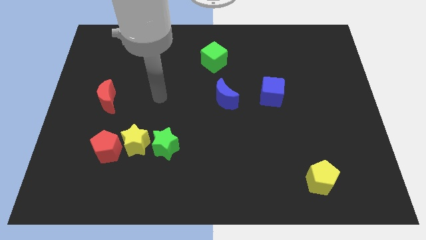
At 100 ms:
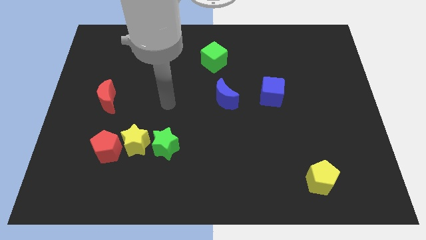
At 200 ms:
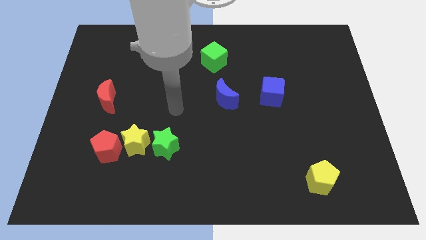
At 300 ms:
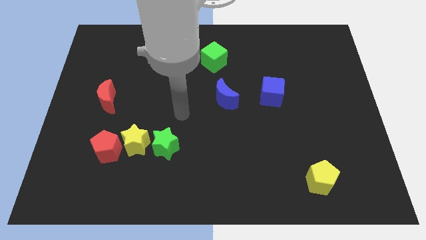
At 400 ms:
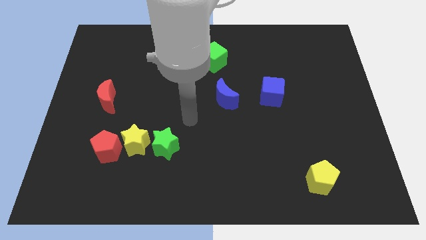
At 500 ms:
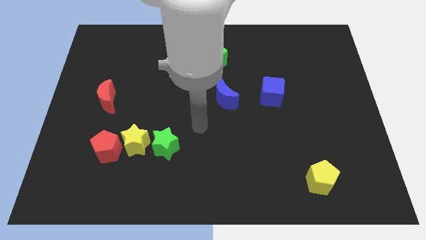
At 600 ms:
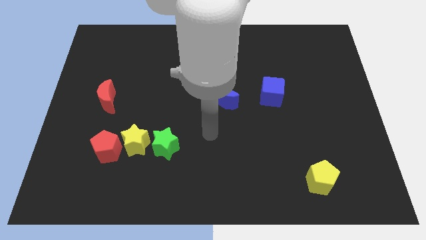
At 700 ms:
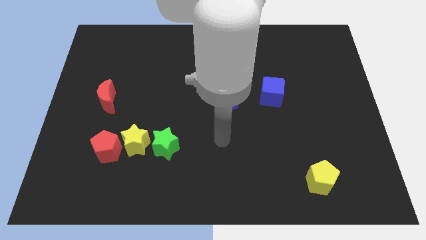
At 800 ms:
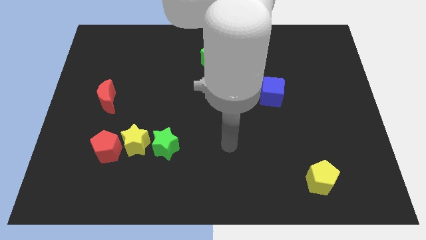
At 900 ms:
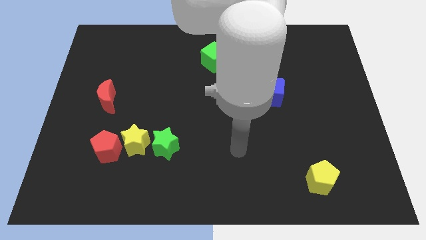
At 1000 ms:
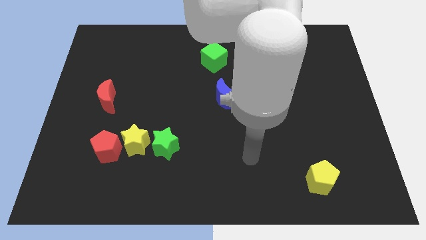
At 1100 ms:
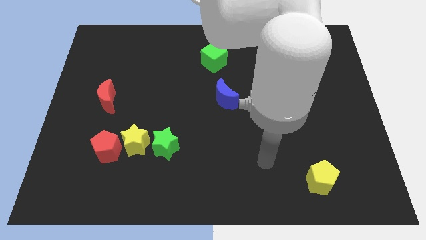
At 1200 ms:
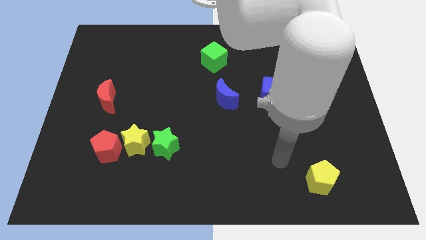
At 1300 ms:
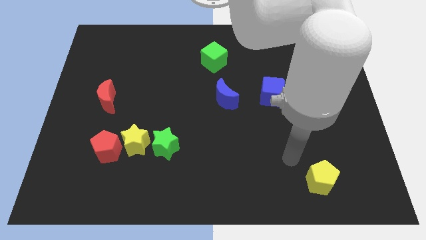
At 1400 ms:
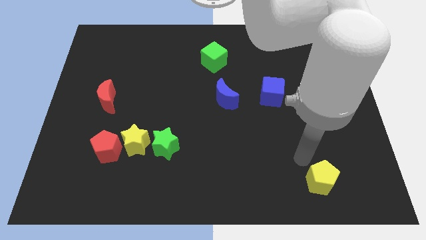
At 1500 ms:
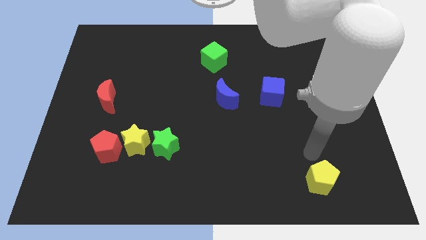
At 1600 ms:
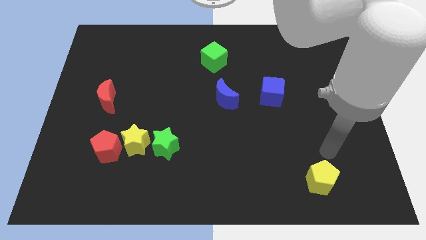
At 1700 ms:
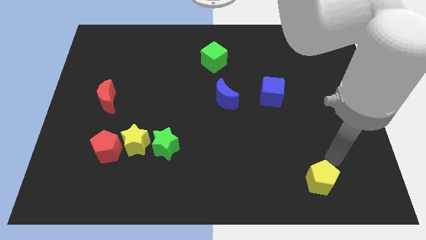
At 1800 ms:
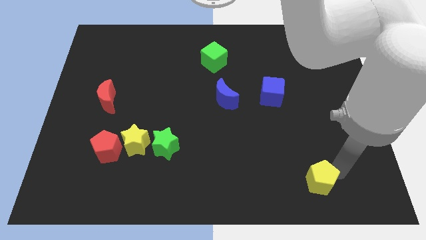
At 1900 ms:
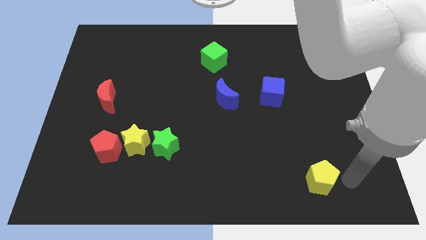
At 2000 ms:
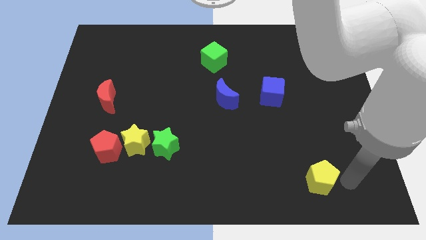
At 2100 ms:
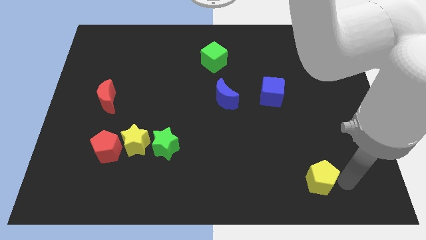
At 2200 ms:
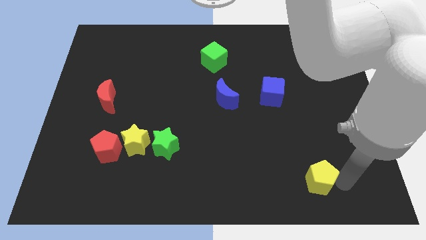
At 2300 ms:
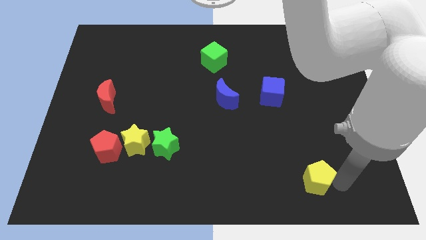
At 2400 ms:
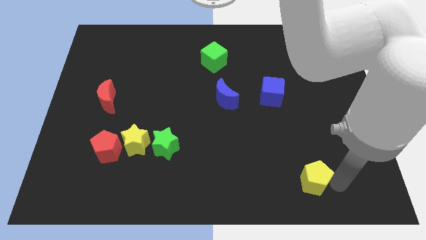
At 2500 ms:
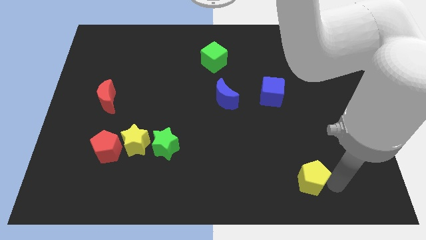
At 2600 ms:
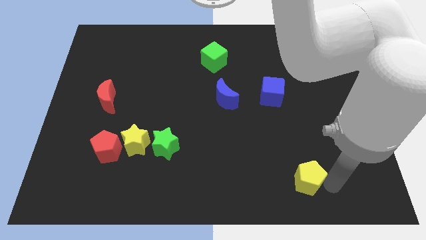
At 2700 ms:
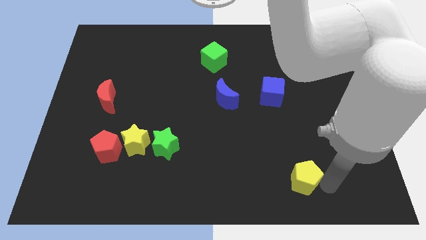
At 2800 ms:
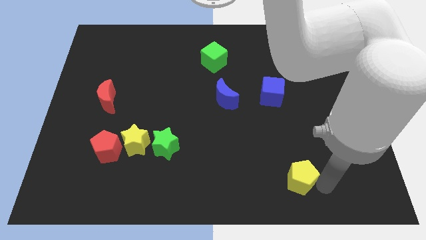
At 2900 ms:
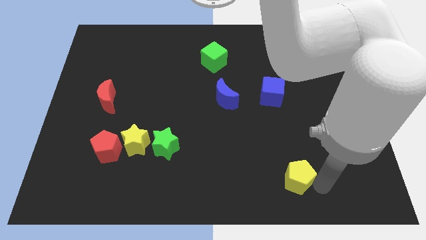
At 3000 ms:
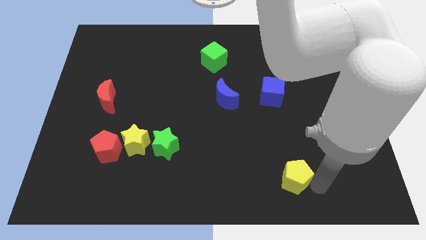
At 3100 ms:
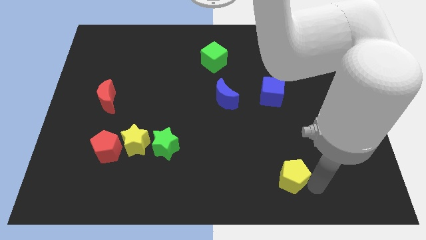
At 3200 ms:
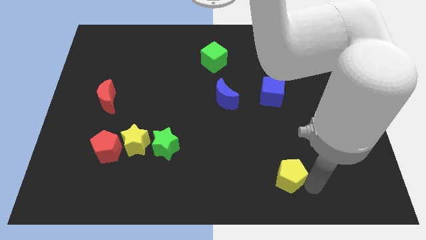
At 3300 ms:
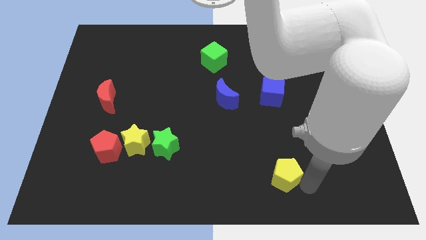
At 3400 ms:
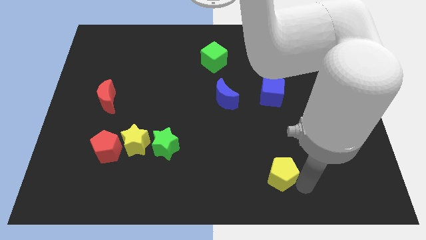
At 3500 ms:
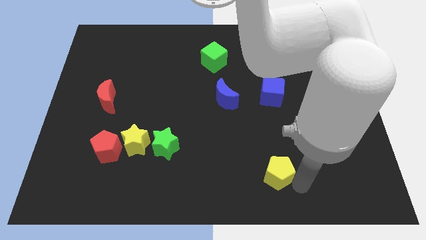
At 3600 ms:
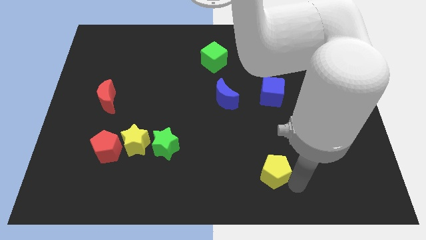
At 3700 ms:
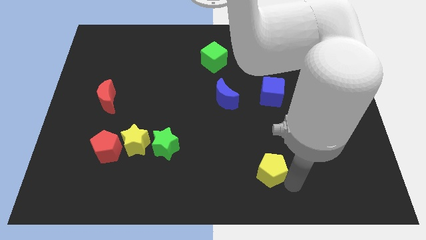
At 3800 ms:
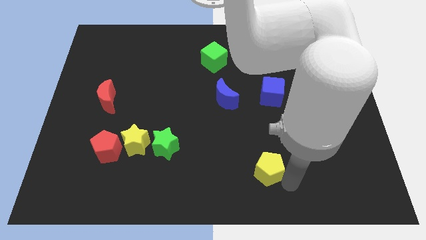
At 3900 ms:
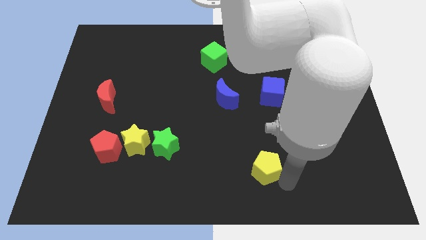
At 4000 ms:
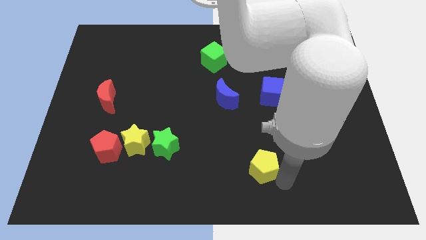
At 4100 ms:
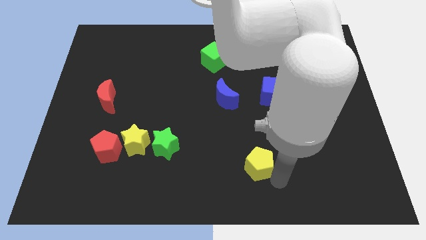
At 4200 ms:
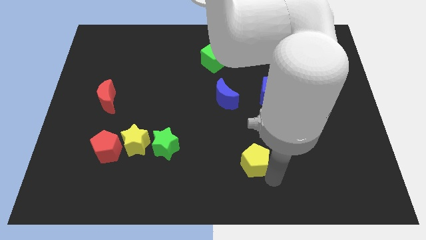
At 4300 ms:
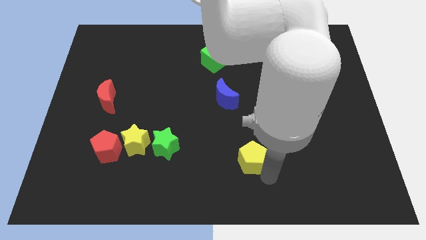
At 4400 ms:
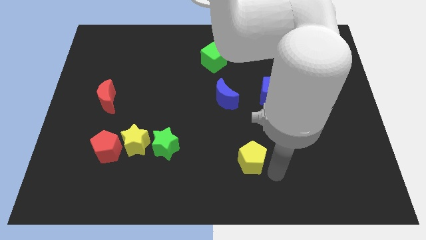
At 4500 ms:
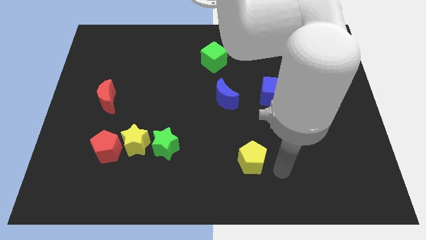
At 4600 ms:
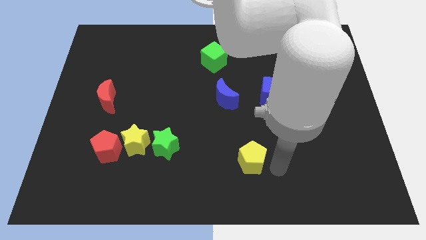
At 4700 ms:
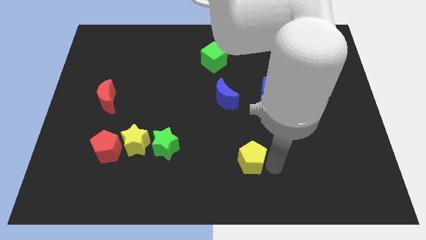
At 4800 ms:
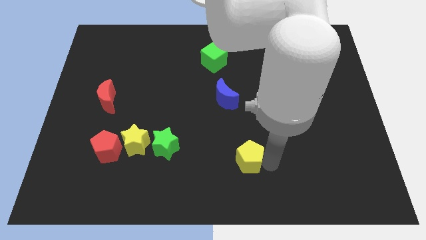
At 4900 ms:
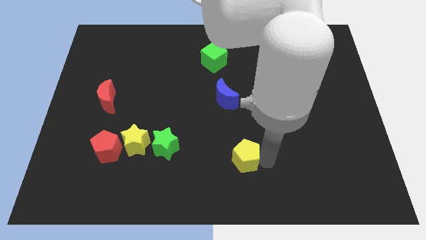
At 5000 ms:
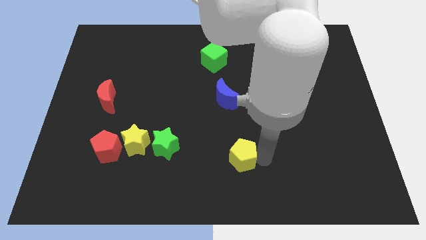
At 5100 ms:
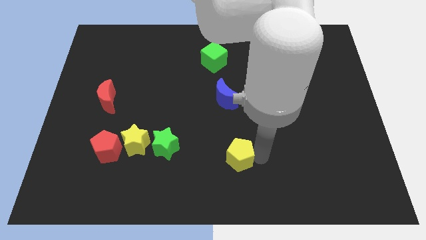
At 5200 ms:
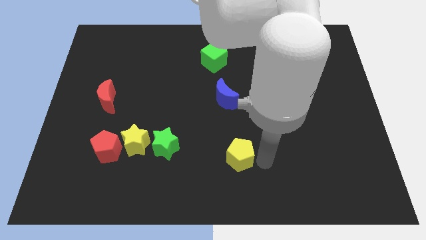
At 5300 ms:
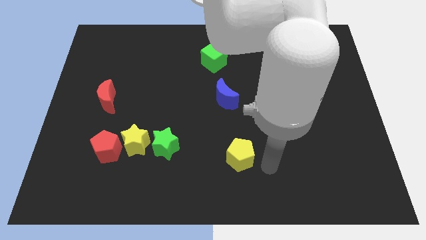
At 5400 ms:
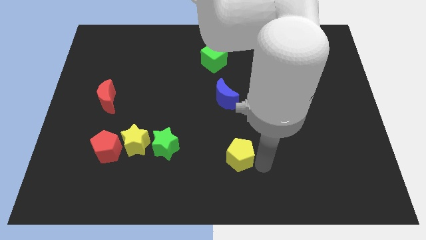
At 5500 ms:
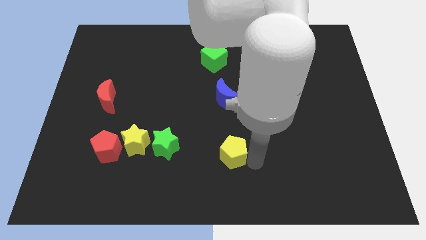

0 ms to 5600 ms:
push the yellow pentagon to the right of the green star

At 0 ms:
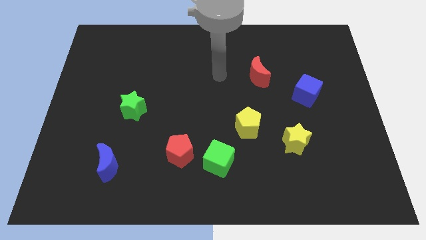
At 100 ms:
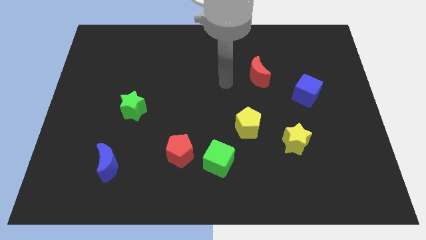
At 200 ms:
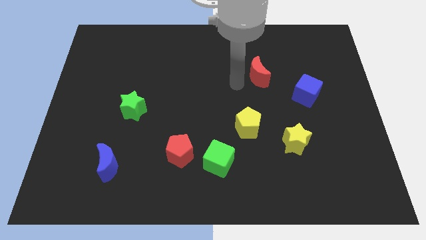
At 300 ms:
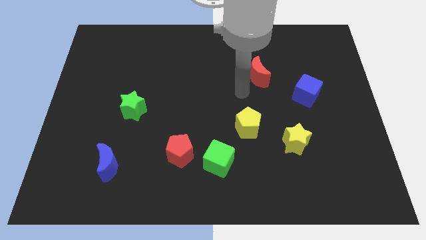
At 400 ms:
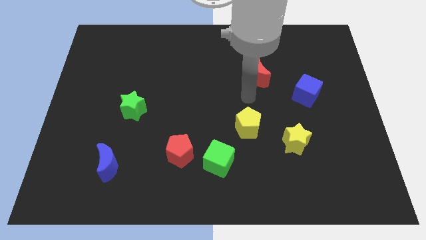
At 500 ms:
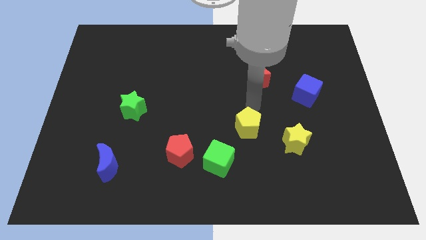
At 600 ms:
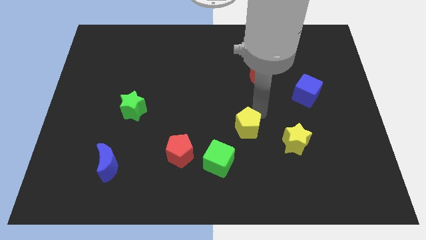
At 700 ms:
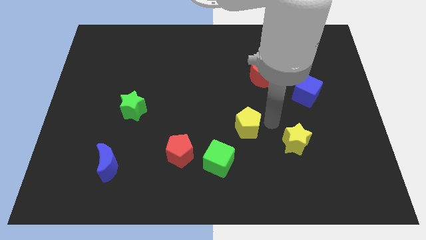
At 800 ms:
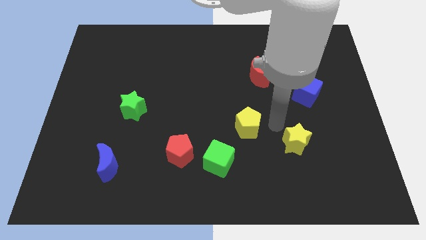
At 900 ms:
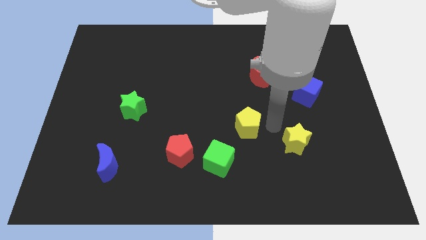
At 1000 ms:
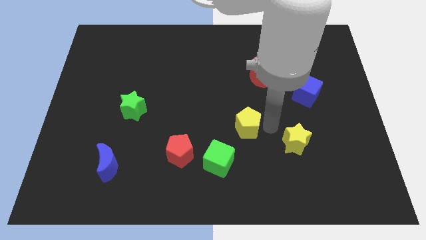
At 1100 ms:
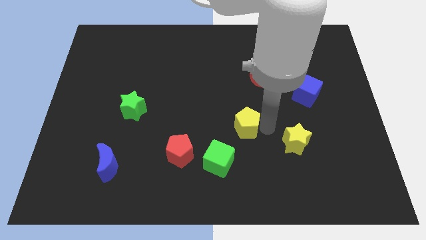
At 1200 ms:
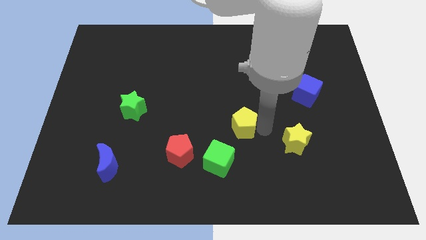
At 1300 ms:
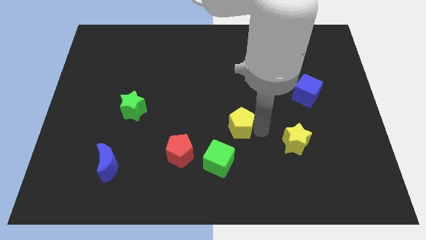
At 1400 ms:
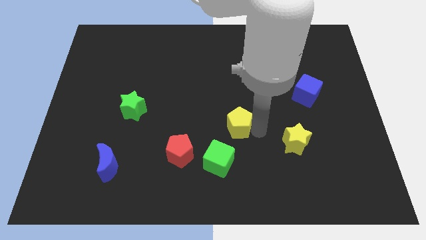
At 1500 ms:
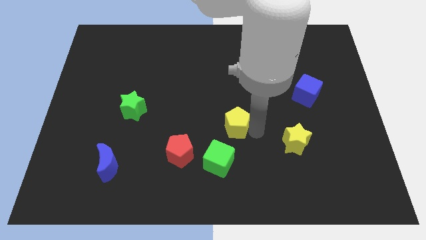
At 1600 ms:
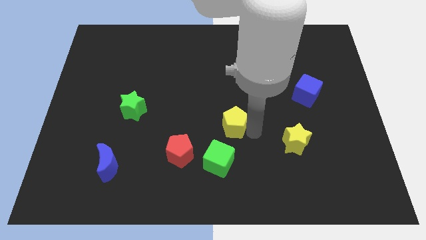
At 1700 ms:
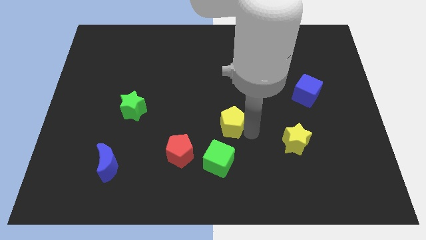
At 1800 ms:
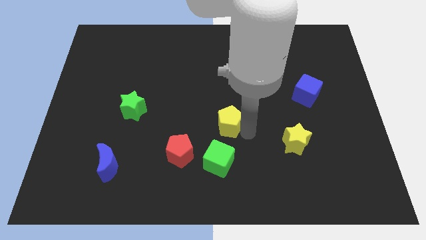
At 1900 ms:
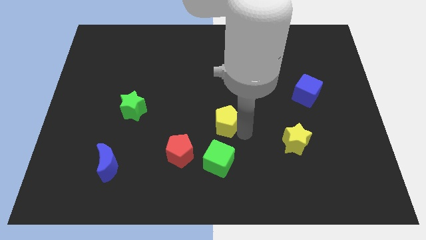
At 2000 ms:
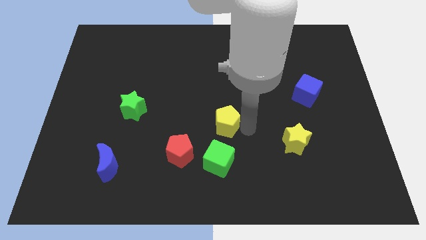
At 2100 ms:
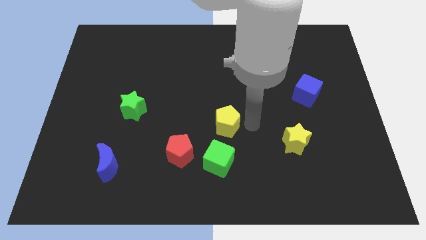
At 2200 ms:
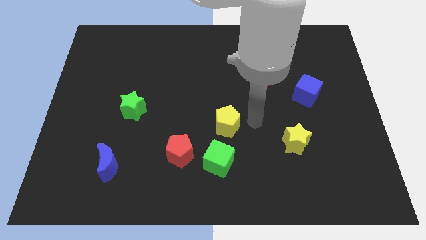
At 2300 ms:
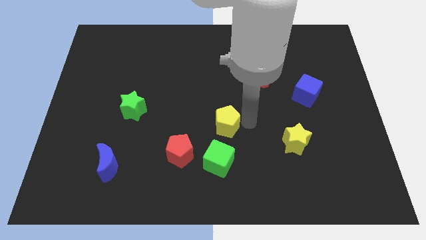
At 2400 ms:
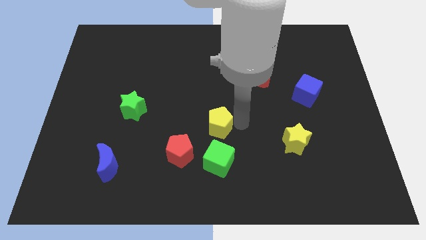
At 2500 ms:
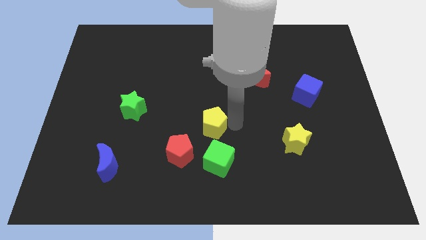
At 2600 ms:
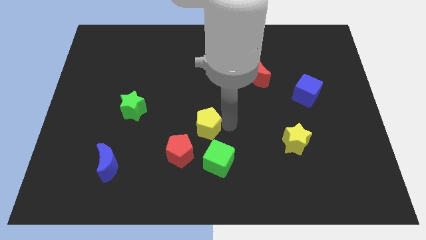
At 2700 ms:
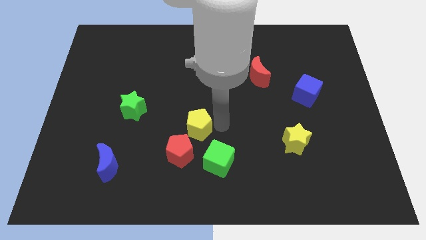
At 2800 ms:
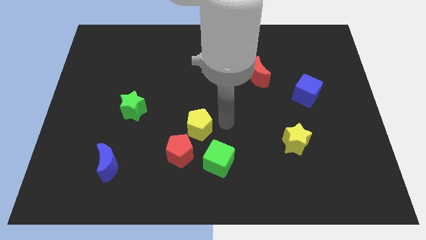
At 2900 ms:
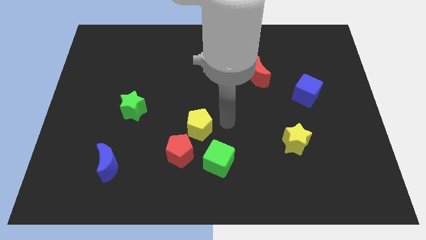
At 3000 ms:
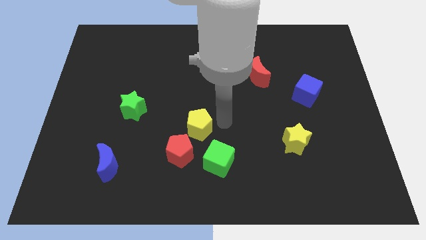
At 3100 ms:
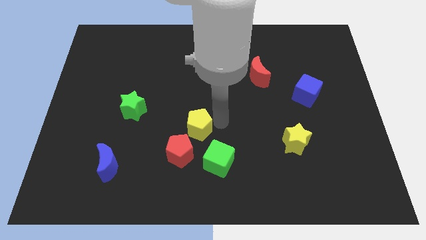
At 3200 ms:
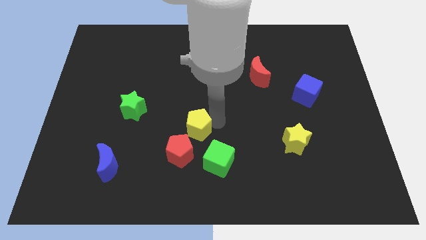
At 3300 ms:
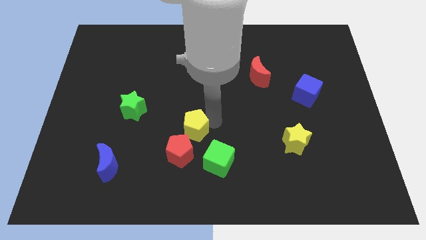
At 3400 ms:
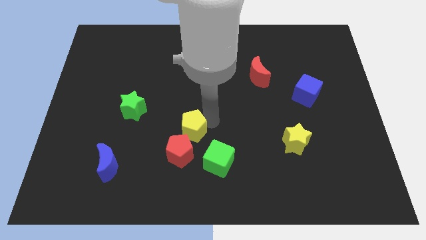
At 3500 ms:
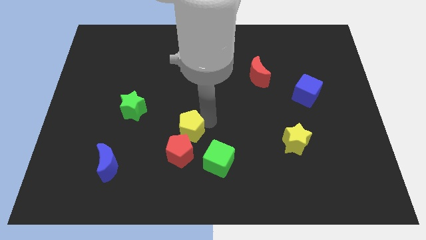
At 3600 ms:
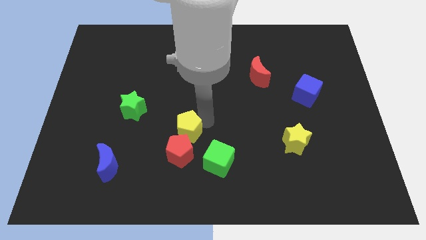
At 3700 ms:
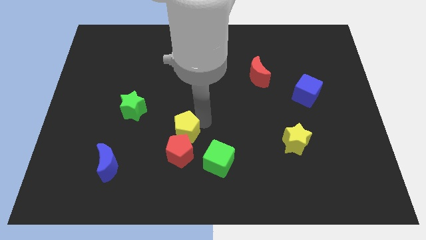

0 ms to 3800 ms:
move the yellow pentagon to the top left side of the red pentagon
